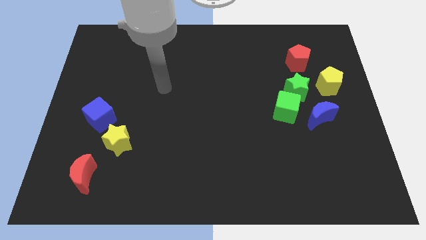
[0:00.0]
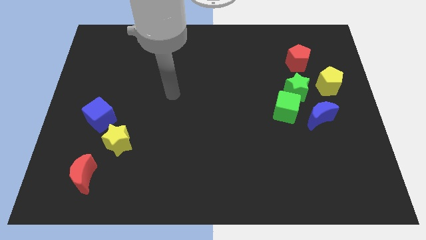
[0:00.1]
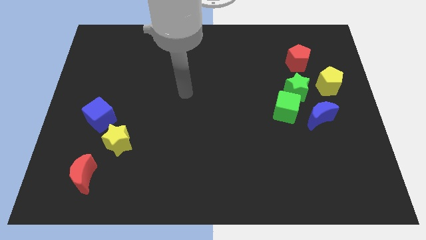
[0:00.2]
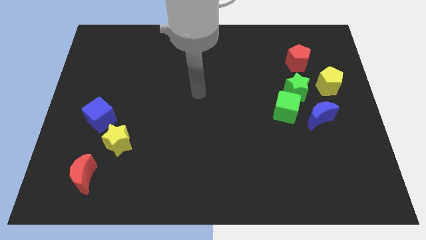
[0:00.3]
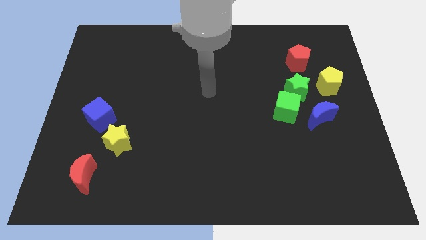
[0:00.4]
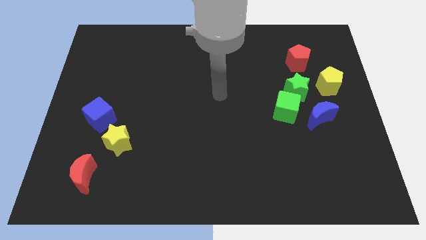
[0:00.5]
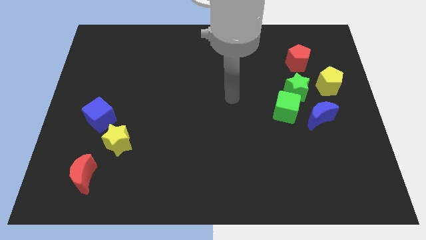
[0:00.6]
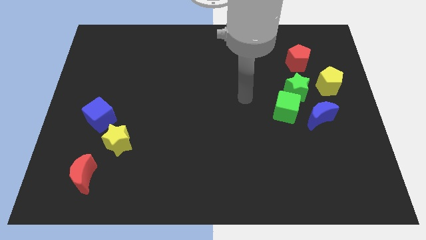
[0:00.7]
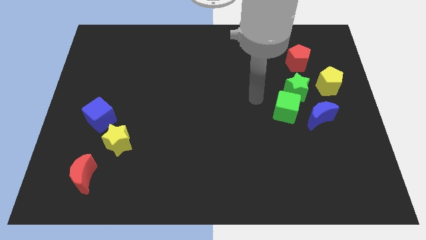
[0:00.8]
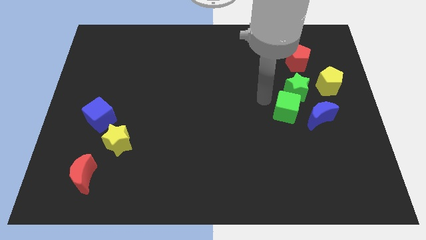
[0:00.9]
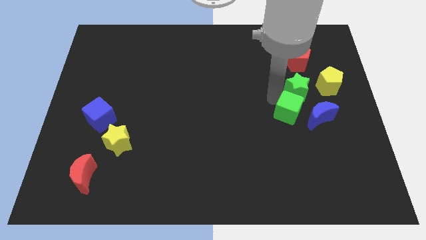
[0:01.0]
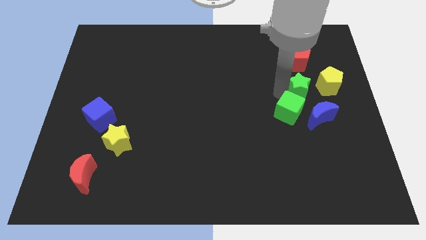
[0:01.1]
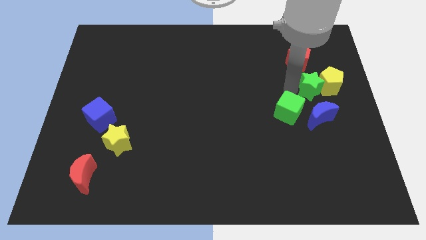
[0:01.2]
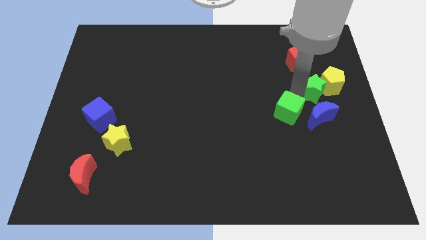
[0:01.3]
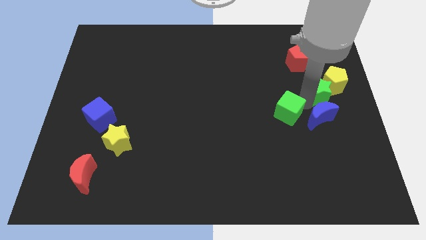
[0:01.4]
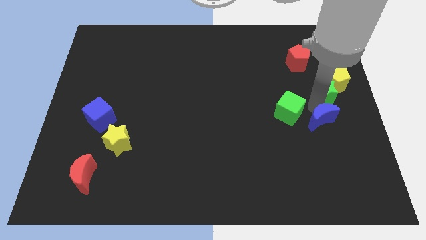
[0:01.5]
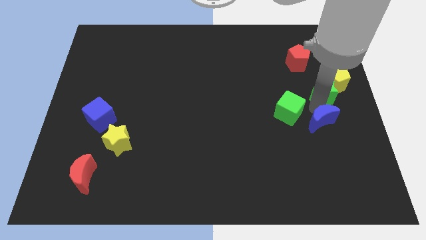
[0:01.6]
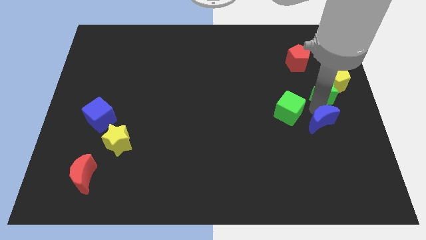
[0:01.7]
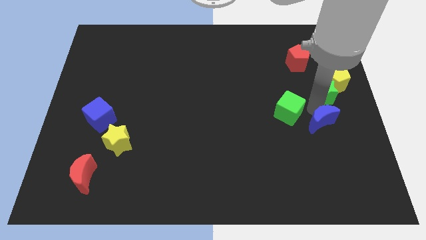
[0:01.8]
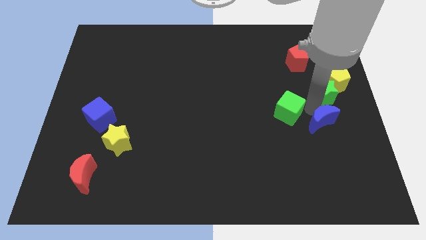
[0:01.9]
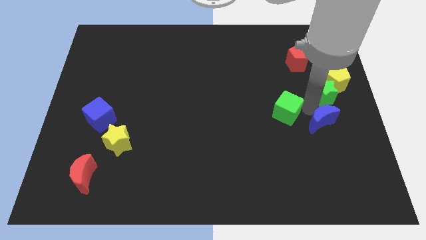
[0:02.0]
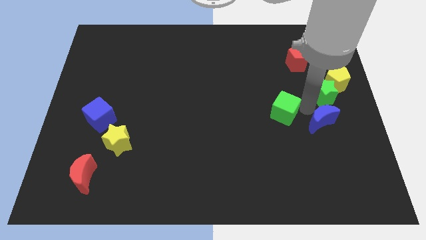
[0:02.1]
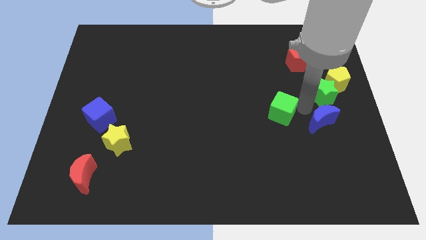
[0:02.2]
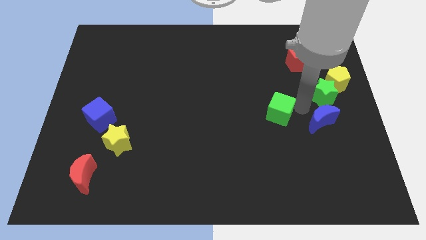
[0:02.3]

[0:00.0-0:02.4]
move the green cube away from the green star and blue moon

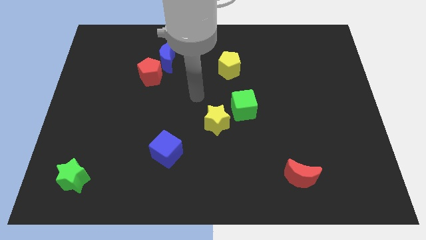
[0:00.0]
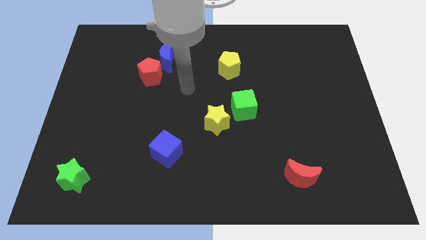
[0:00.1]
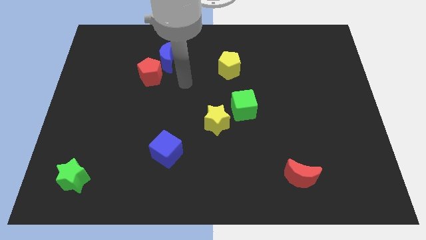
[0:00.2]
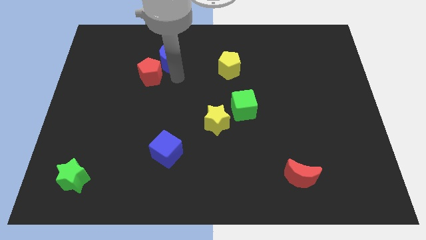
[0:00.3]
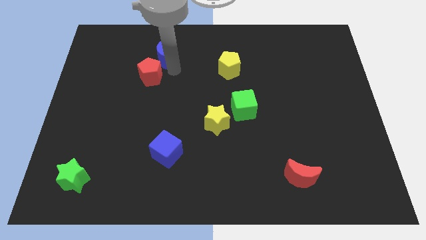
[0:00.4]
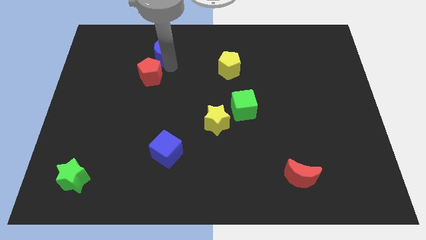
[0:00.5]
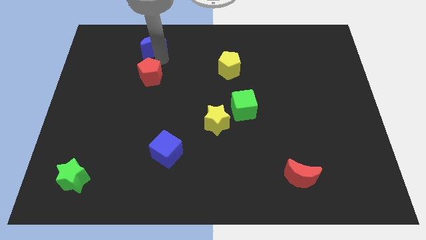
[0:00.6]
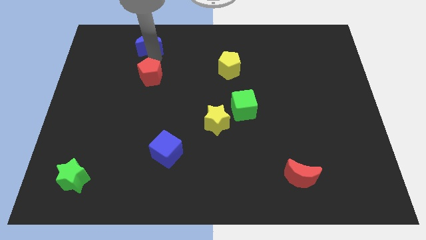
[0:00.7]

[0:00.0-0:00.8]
move the red pentagon away from the blue moon

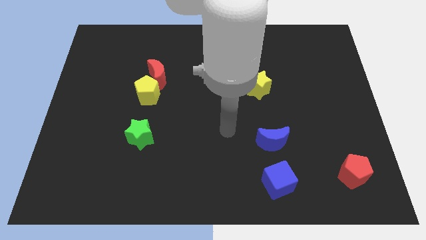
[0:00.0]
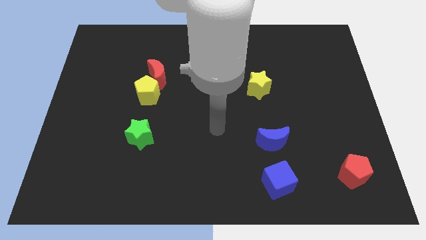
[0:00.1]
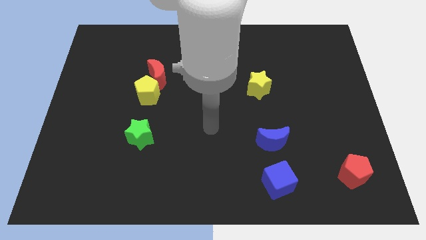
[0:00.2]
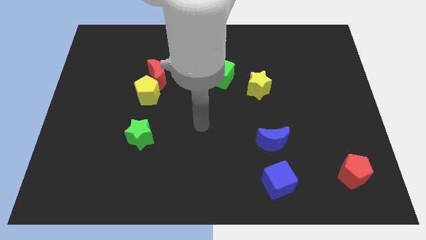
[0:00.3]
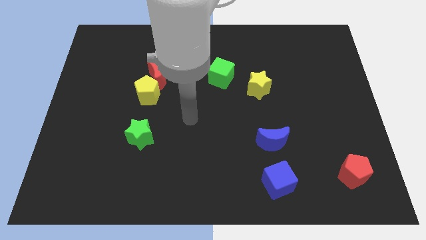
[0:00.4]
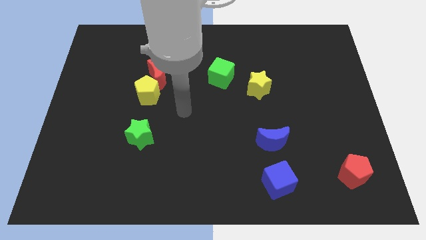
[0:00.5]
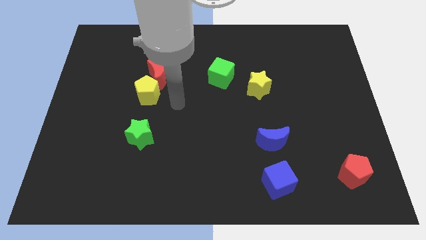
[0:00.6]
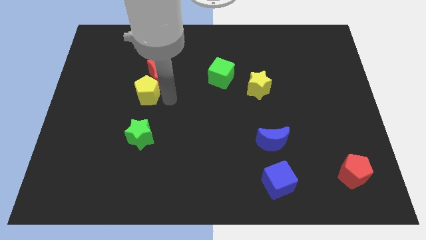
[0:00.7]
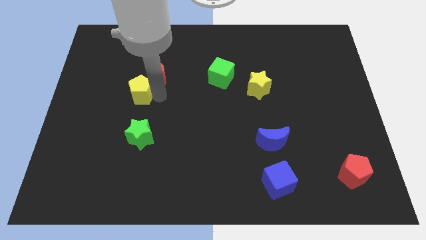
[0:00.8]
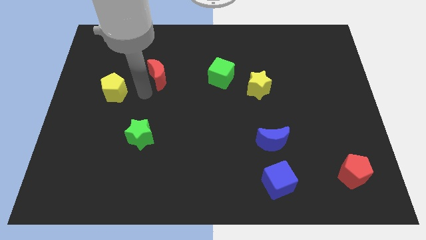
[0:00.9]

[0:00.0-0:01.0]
move the red moon away from the yellow pentagon

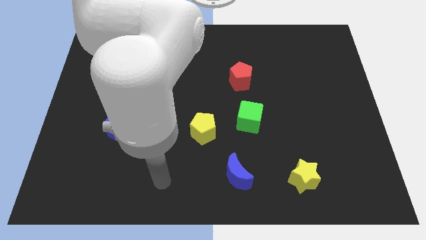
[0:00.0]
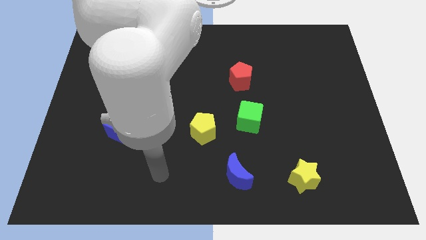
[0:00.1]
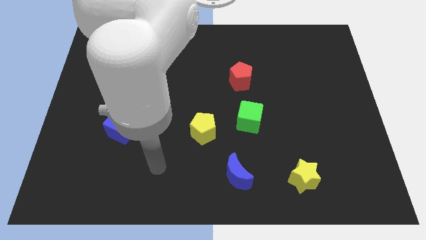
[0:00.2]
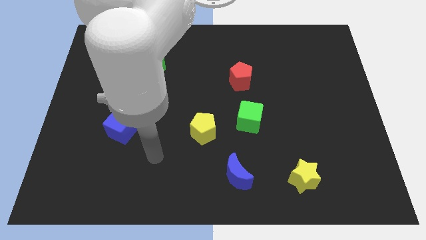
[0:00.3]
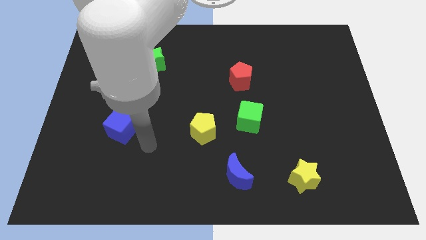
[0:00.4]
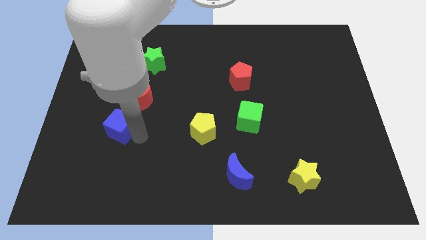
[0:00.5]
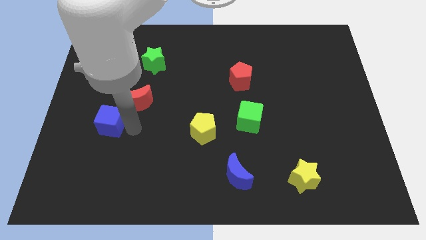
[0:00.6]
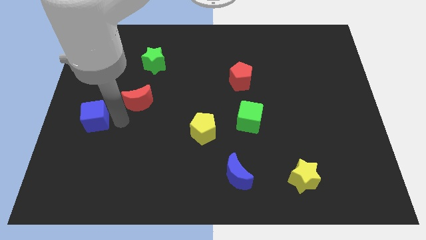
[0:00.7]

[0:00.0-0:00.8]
separate the red moon from the blue cube

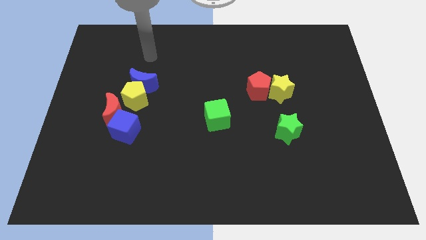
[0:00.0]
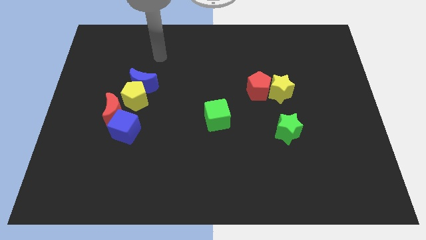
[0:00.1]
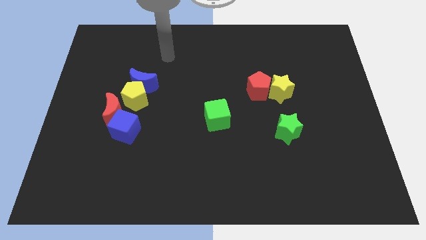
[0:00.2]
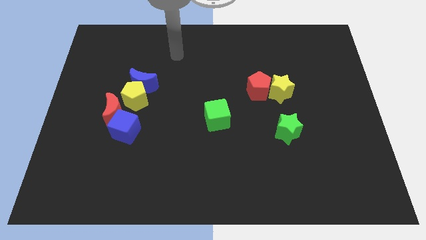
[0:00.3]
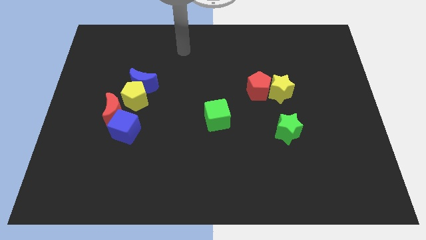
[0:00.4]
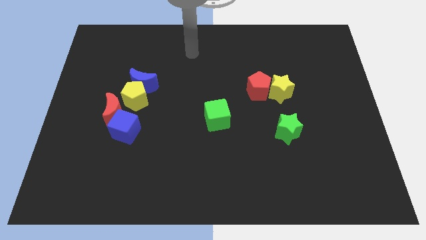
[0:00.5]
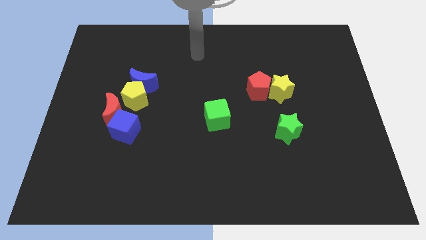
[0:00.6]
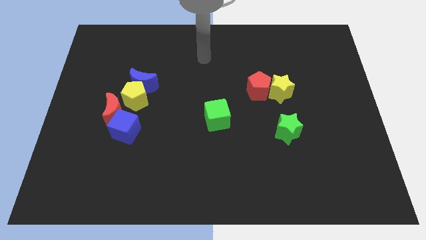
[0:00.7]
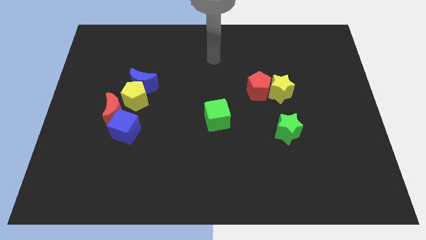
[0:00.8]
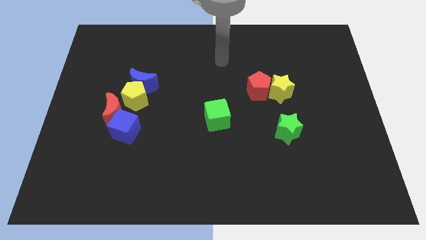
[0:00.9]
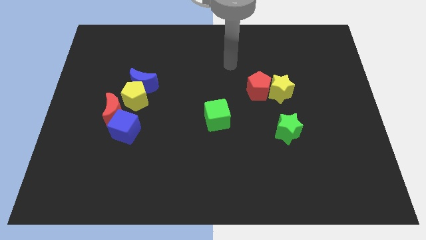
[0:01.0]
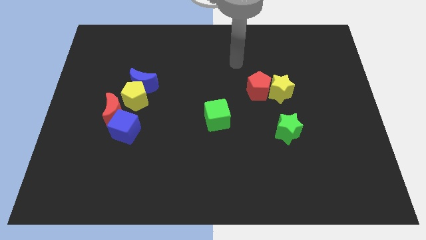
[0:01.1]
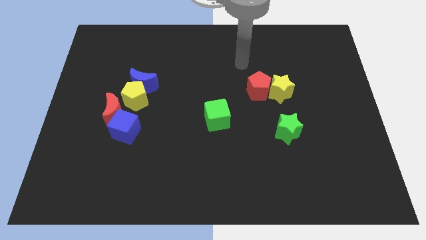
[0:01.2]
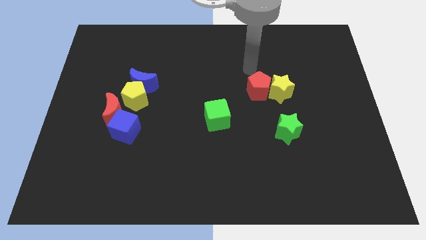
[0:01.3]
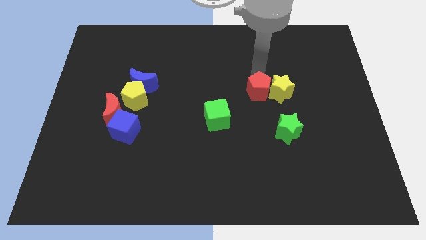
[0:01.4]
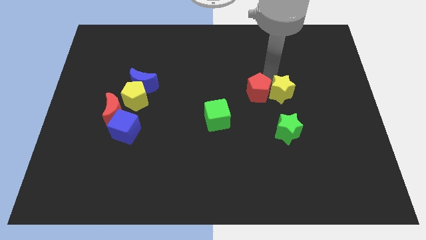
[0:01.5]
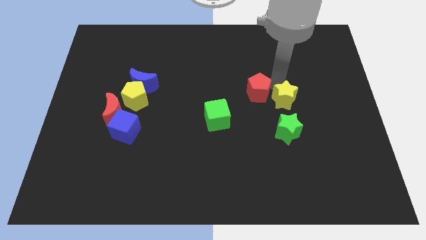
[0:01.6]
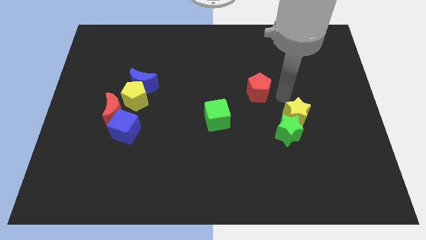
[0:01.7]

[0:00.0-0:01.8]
move the red pentagon away from the yellow star

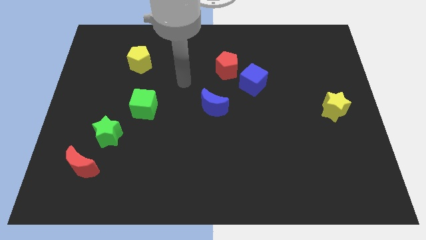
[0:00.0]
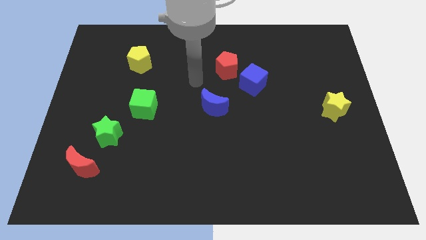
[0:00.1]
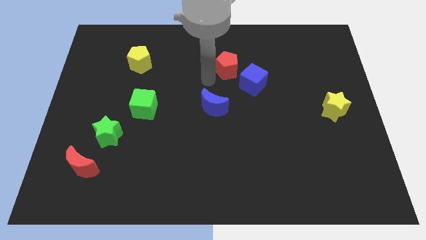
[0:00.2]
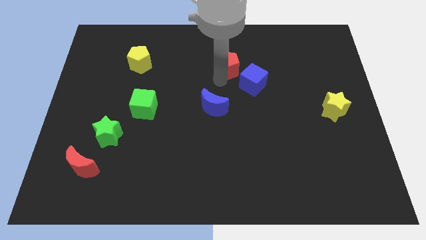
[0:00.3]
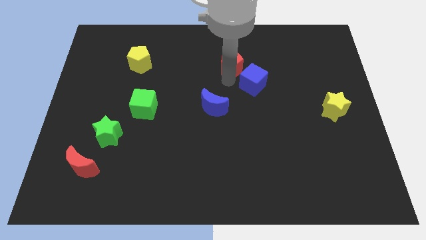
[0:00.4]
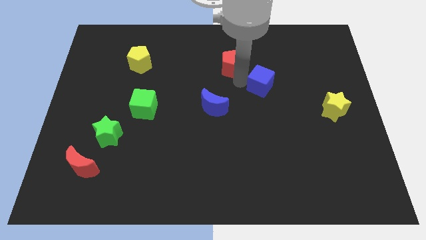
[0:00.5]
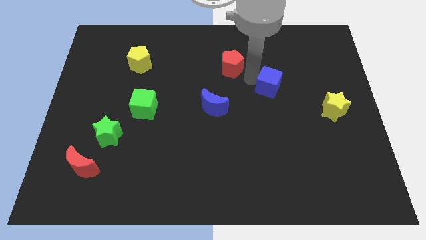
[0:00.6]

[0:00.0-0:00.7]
move the red pentagon away from the blue cube

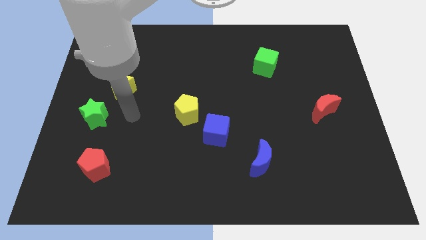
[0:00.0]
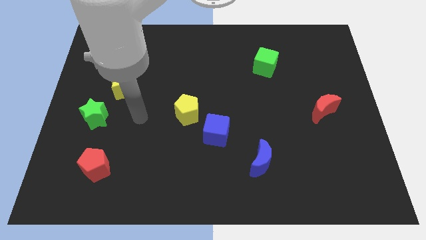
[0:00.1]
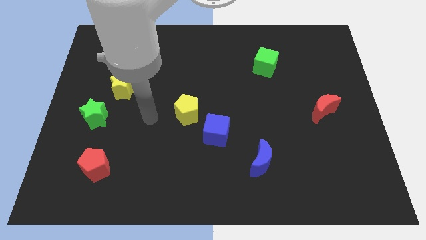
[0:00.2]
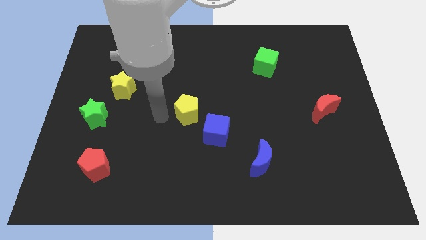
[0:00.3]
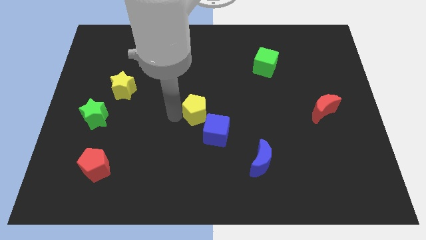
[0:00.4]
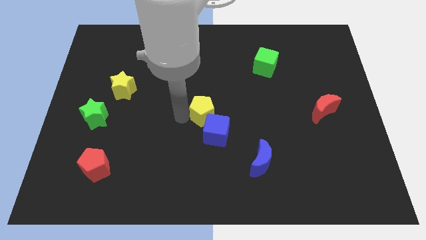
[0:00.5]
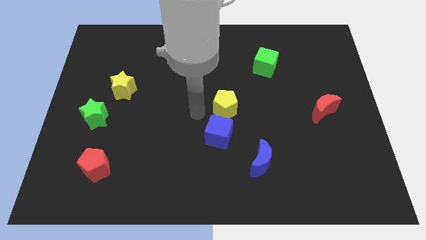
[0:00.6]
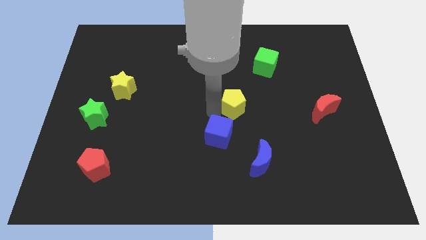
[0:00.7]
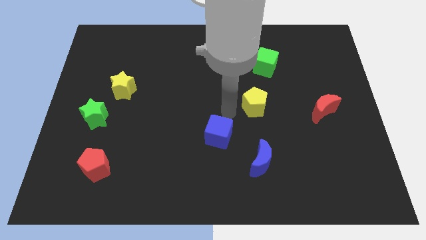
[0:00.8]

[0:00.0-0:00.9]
separate the blue cube from the yellow pentagon

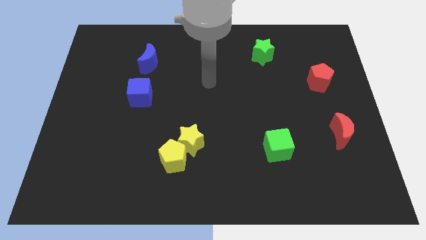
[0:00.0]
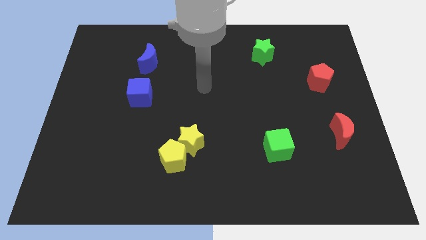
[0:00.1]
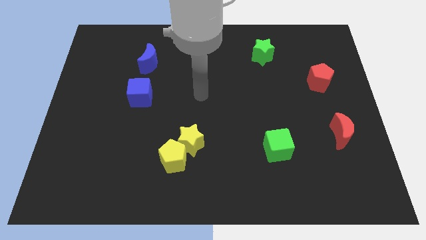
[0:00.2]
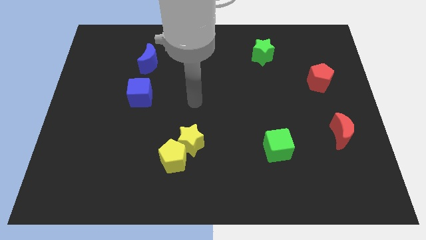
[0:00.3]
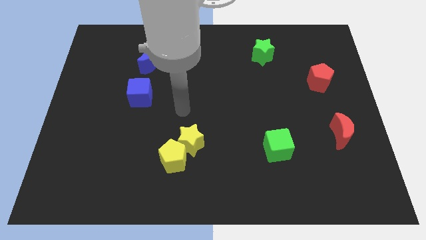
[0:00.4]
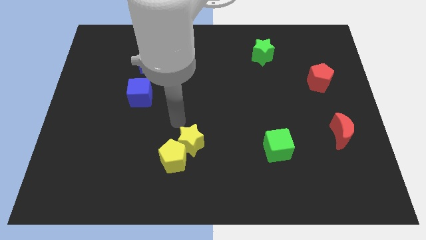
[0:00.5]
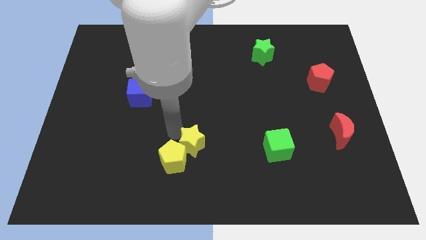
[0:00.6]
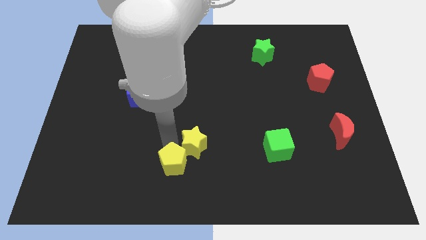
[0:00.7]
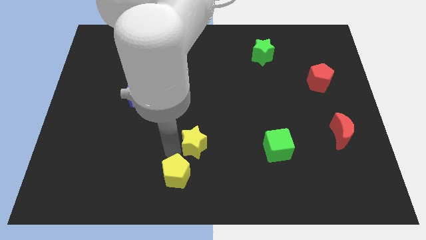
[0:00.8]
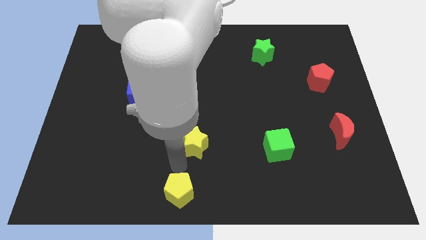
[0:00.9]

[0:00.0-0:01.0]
separate the yellow star from the yellow pentagon
